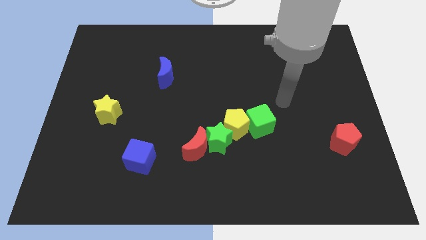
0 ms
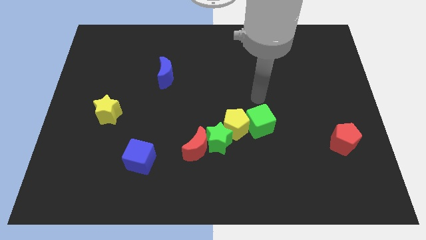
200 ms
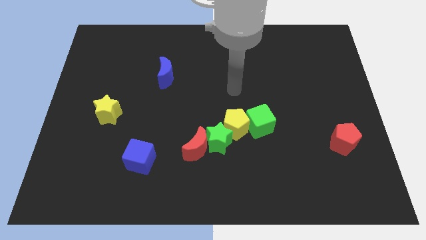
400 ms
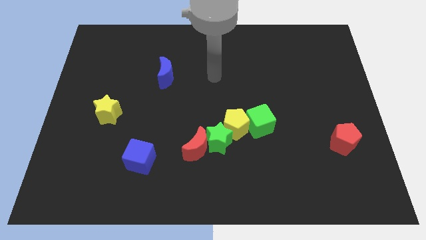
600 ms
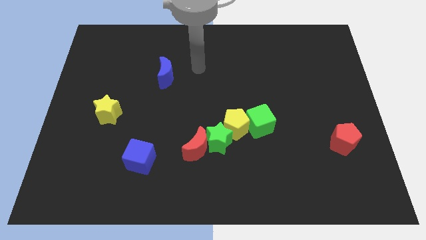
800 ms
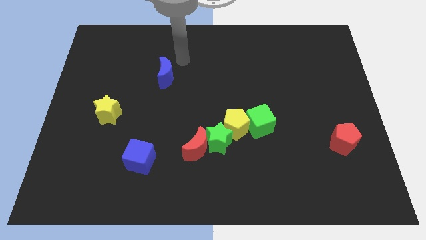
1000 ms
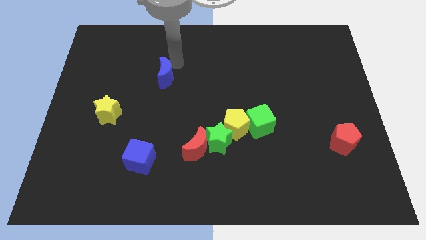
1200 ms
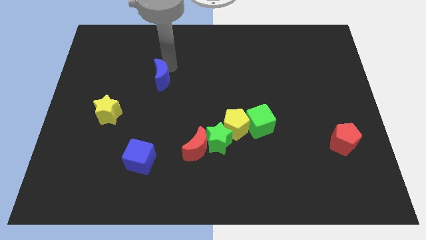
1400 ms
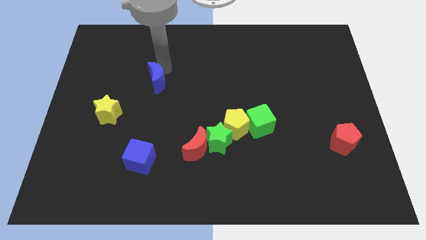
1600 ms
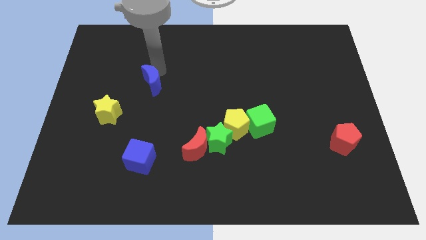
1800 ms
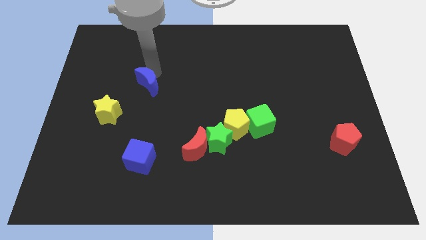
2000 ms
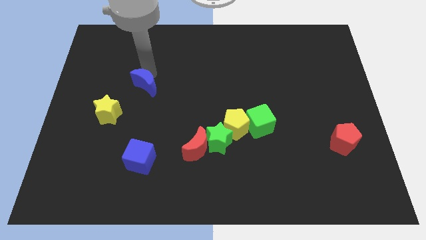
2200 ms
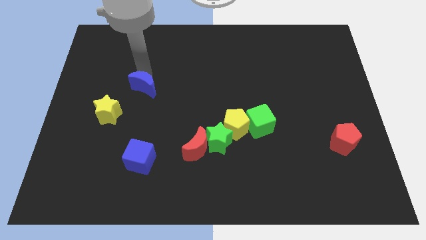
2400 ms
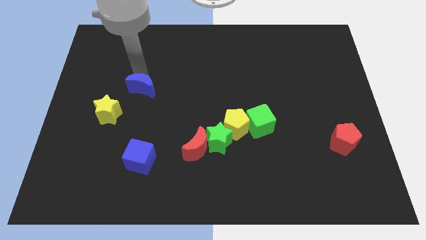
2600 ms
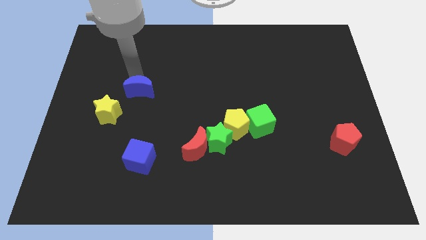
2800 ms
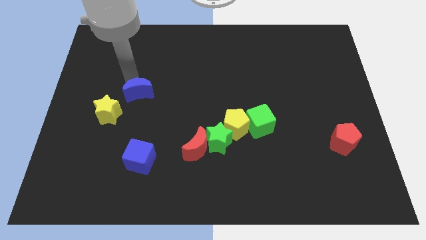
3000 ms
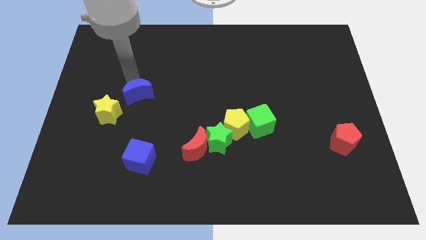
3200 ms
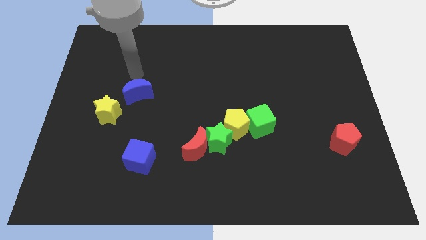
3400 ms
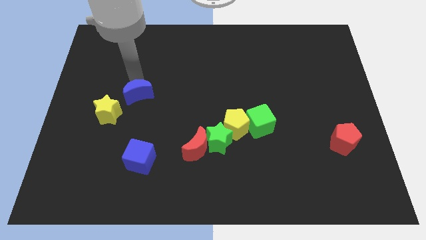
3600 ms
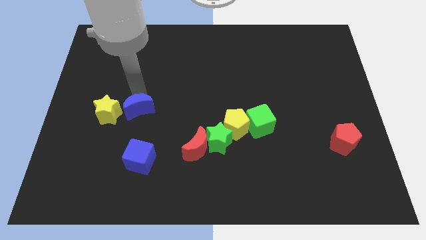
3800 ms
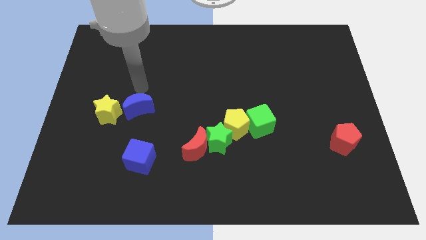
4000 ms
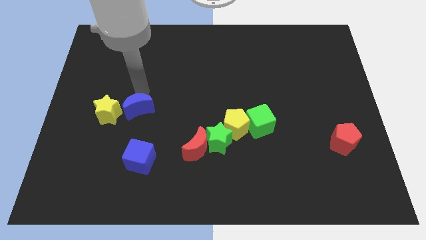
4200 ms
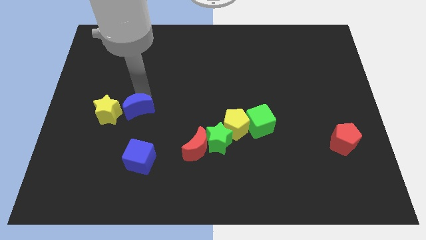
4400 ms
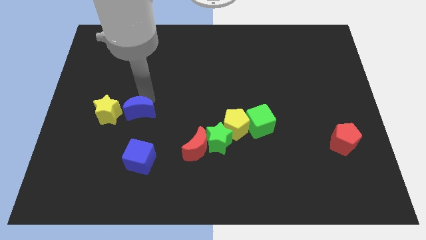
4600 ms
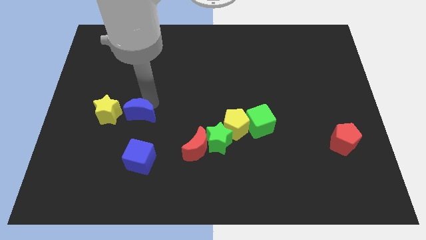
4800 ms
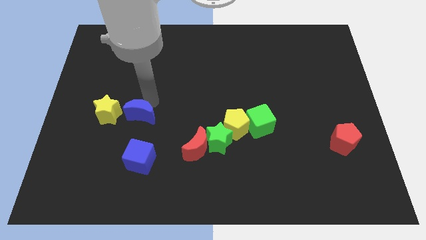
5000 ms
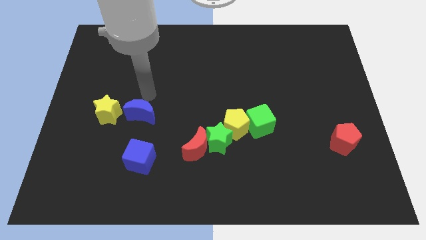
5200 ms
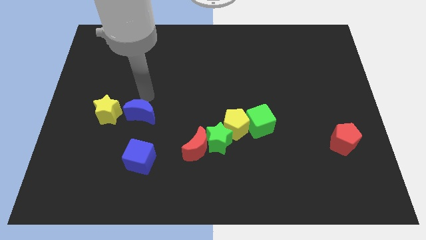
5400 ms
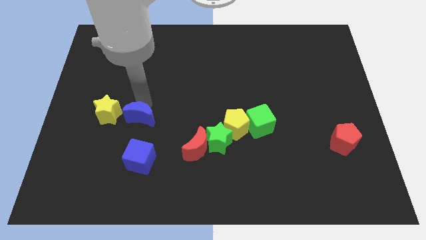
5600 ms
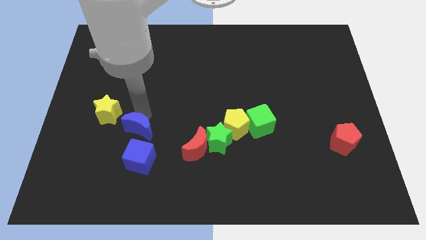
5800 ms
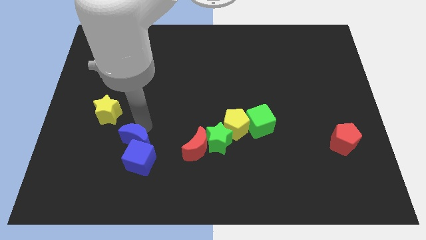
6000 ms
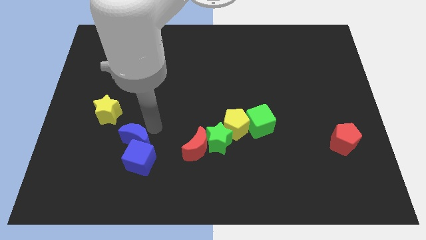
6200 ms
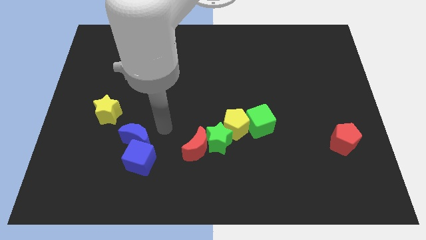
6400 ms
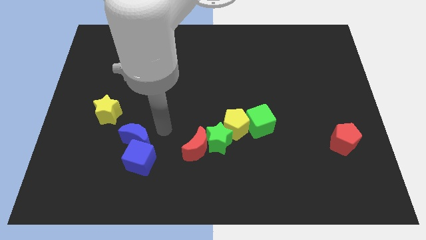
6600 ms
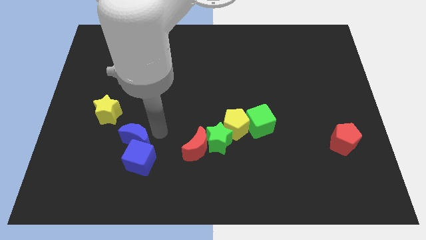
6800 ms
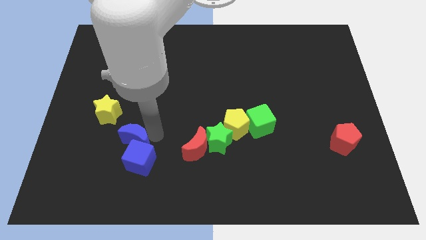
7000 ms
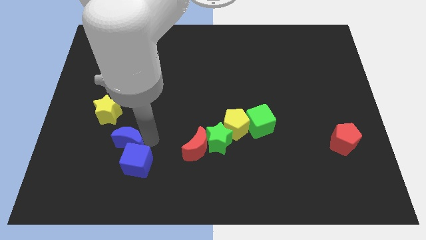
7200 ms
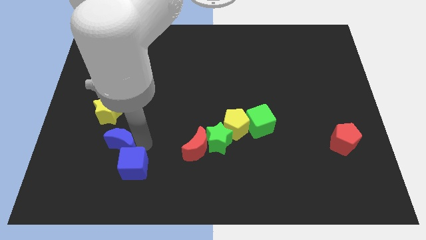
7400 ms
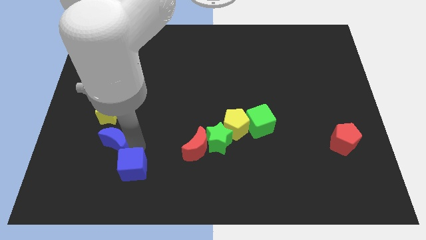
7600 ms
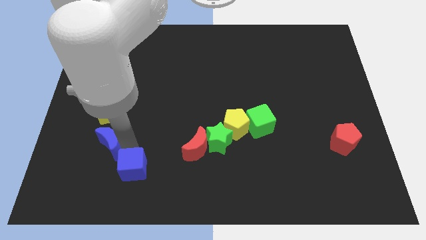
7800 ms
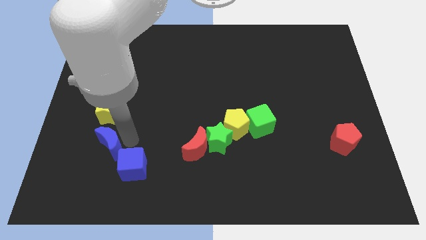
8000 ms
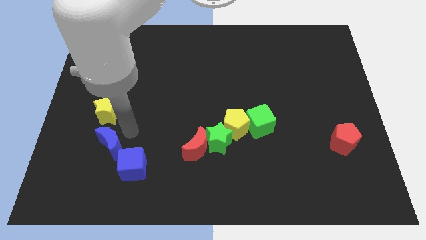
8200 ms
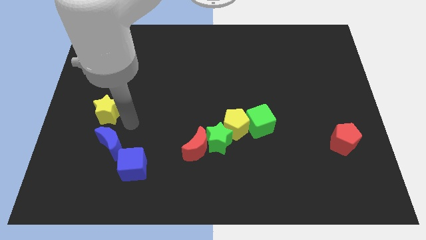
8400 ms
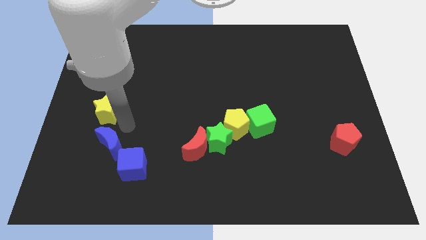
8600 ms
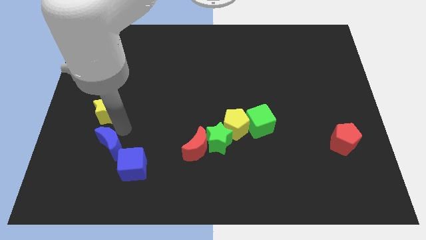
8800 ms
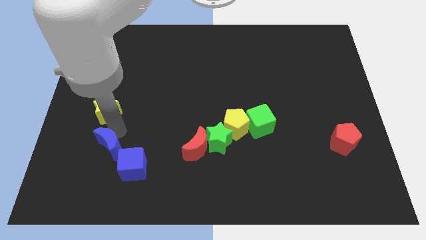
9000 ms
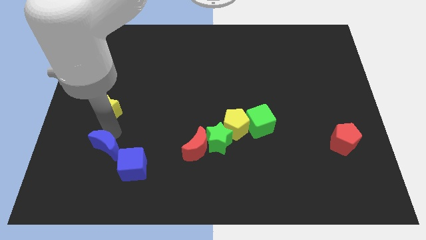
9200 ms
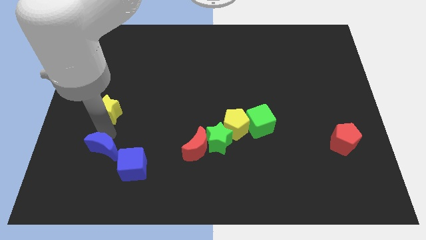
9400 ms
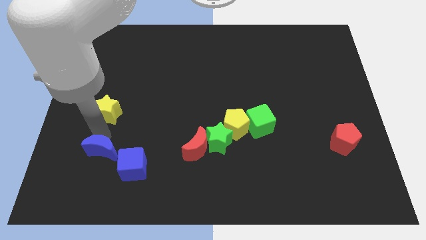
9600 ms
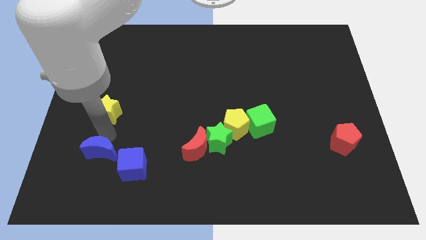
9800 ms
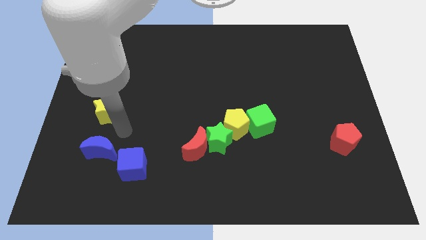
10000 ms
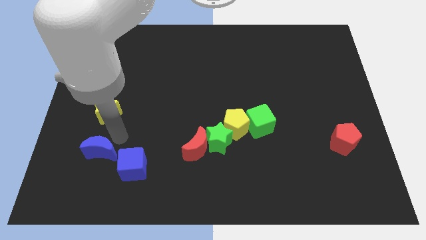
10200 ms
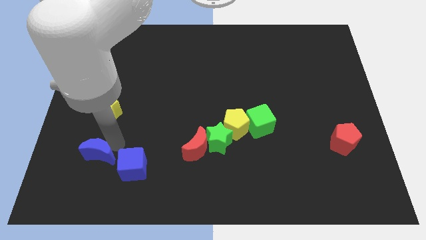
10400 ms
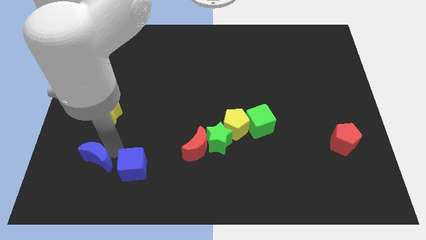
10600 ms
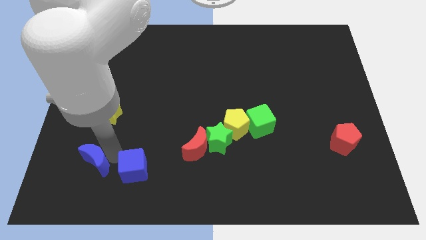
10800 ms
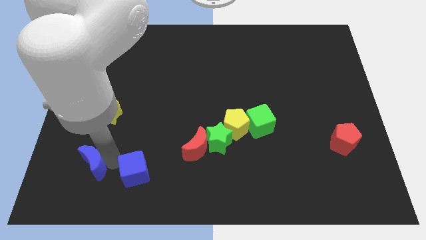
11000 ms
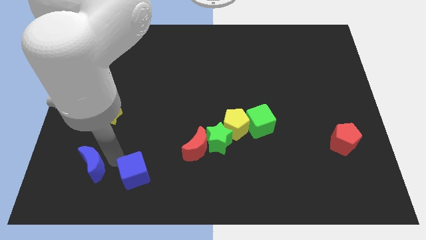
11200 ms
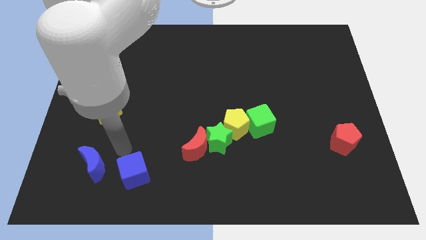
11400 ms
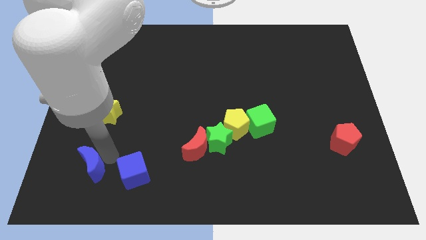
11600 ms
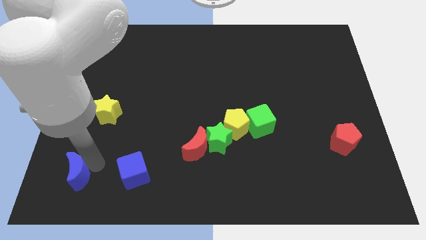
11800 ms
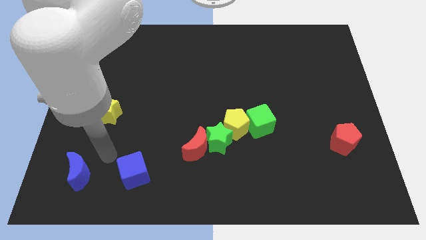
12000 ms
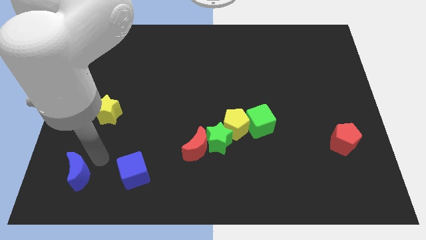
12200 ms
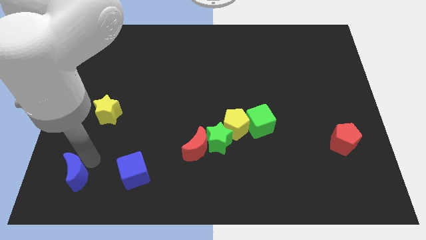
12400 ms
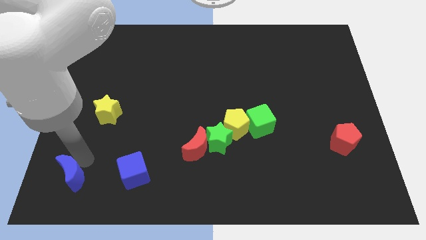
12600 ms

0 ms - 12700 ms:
move the blue moon to the lower left corner
